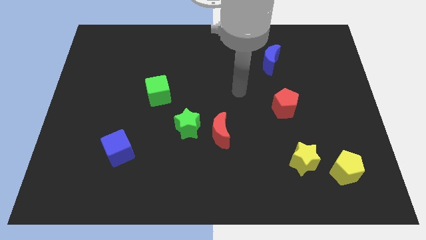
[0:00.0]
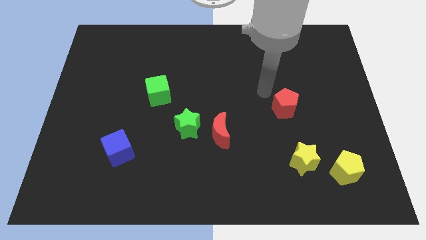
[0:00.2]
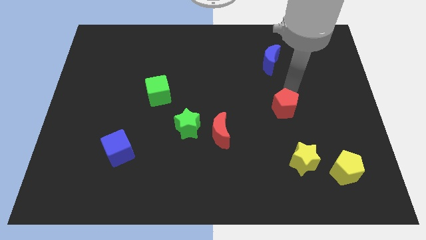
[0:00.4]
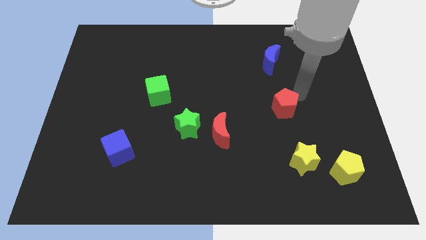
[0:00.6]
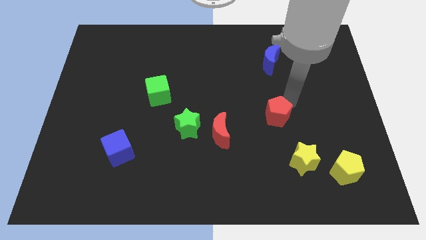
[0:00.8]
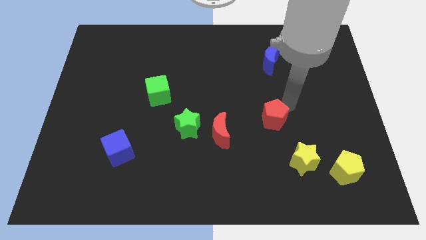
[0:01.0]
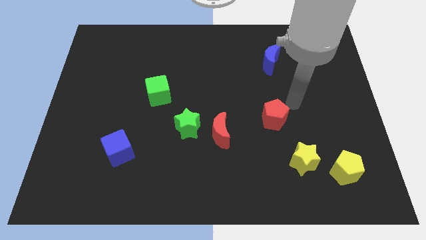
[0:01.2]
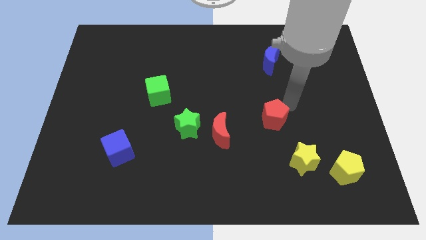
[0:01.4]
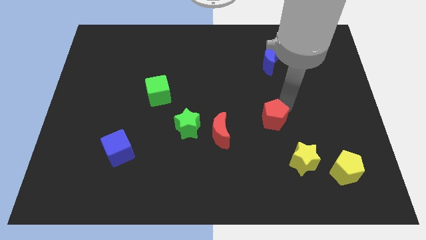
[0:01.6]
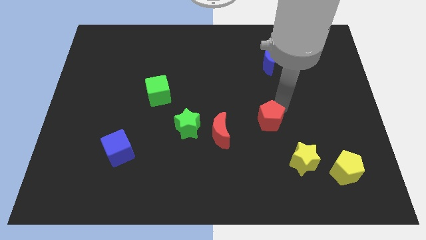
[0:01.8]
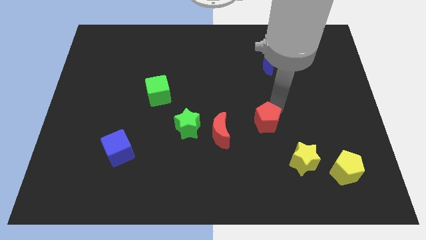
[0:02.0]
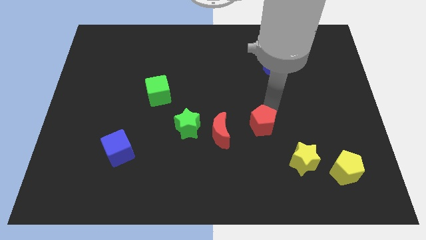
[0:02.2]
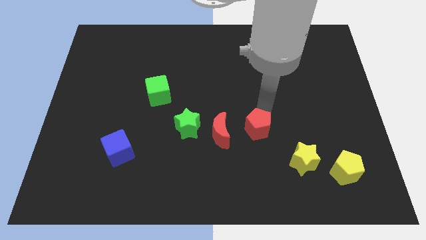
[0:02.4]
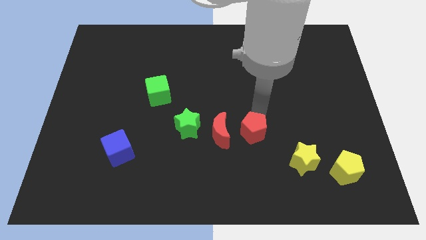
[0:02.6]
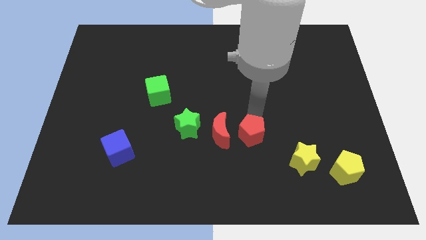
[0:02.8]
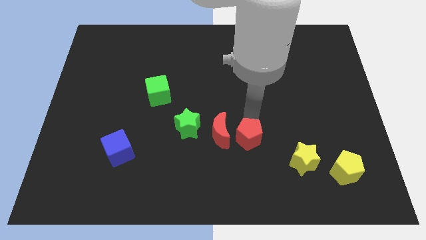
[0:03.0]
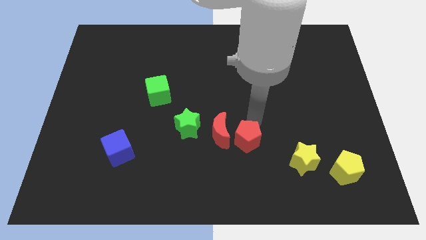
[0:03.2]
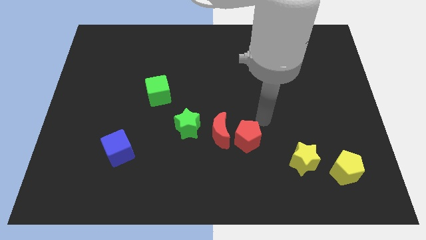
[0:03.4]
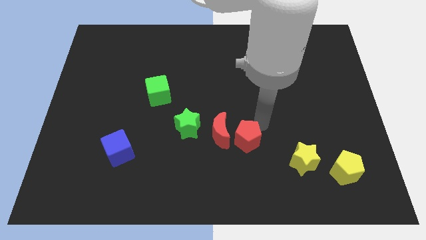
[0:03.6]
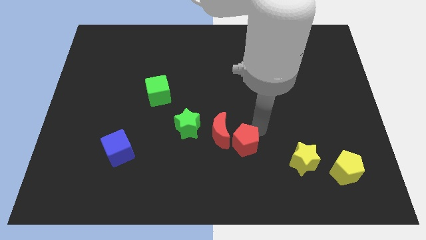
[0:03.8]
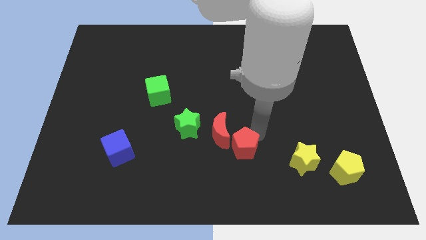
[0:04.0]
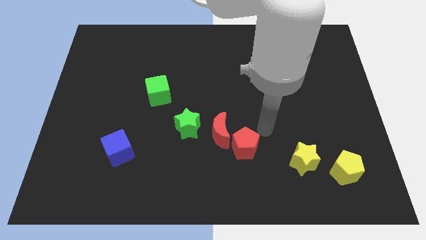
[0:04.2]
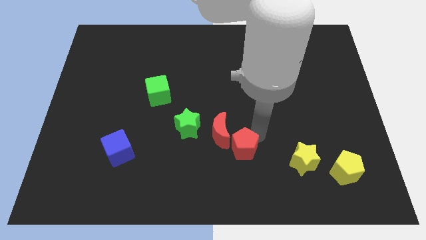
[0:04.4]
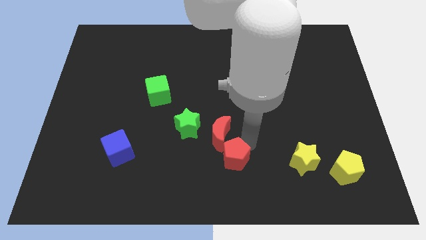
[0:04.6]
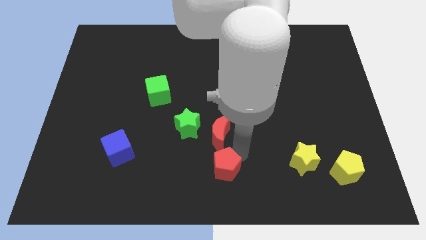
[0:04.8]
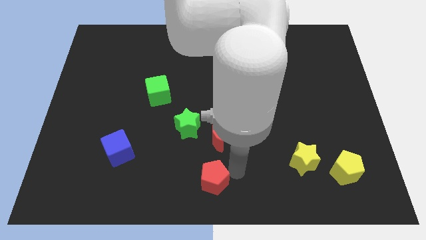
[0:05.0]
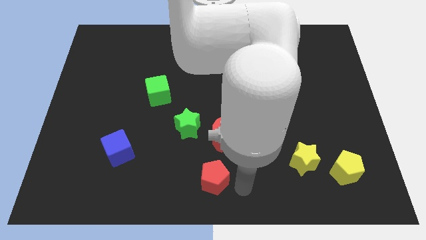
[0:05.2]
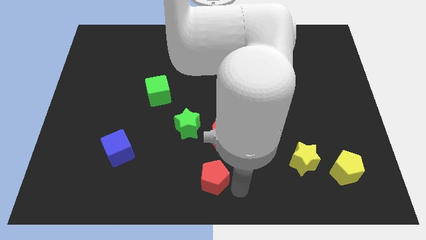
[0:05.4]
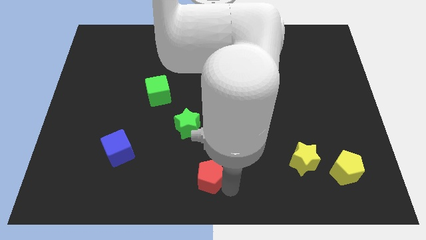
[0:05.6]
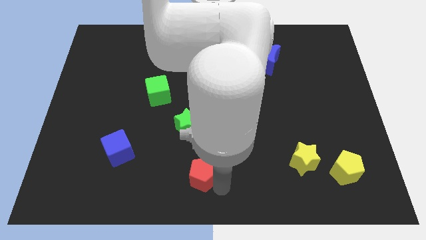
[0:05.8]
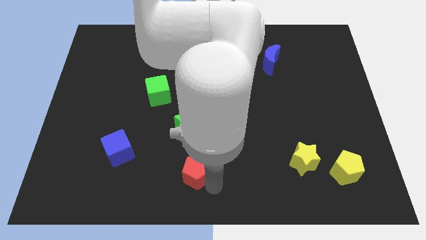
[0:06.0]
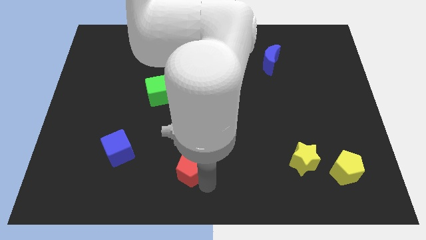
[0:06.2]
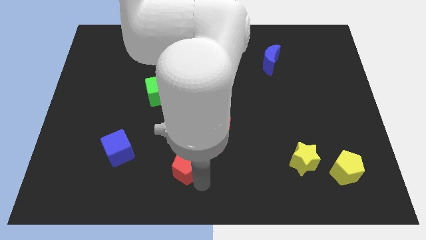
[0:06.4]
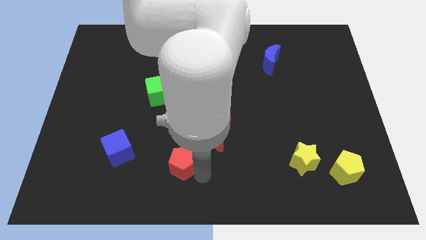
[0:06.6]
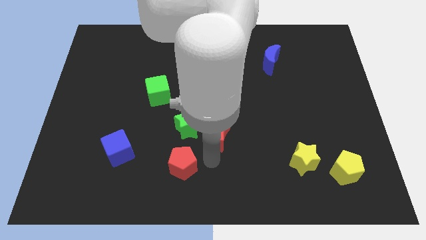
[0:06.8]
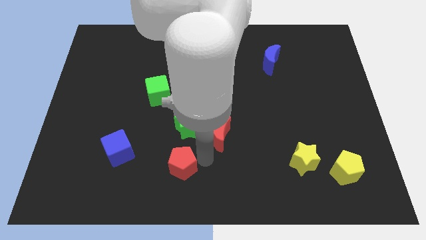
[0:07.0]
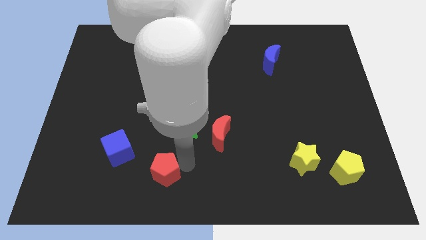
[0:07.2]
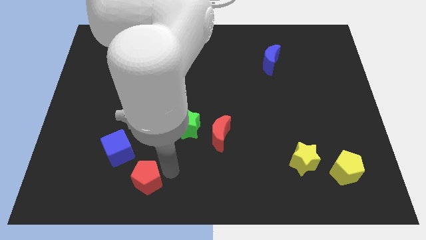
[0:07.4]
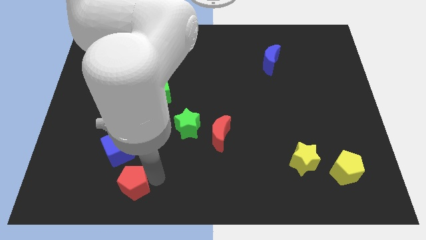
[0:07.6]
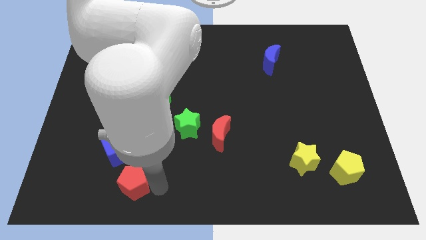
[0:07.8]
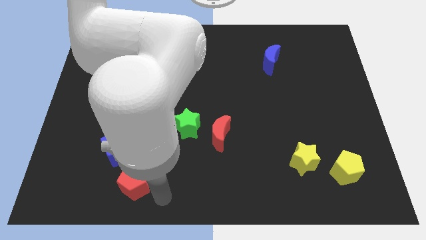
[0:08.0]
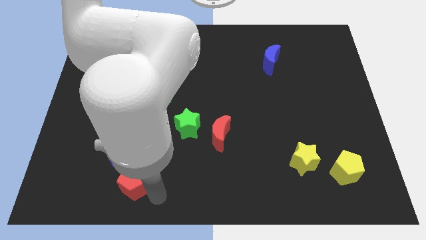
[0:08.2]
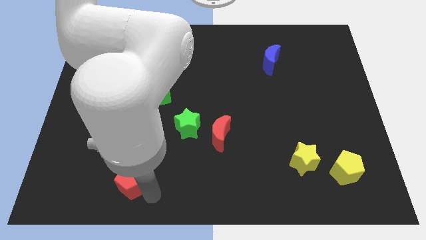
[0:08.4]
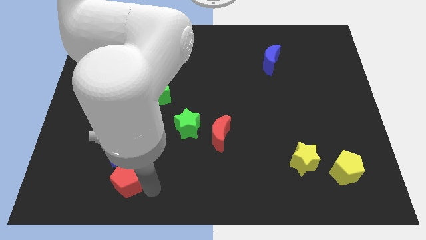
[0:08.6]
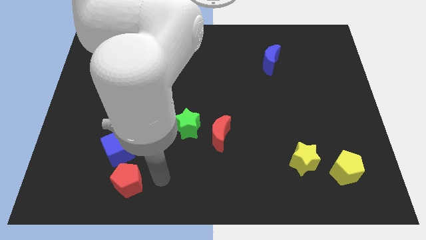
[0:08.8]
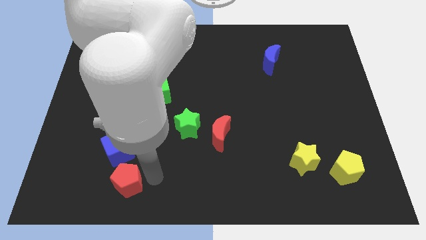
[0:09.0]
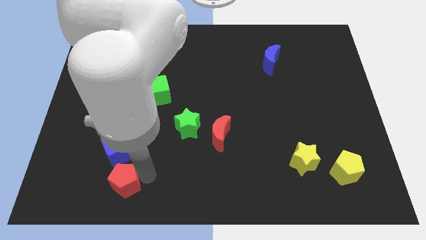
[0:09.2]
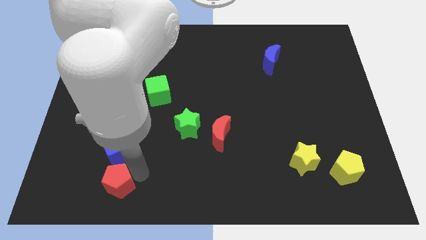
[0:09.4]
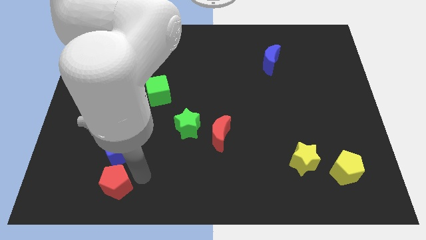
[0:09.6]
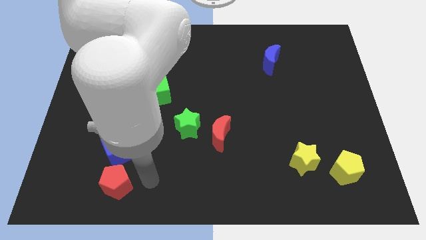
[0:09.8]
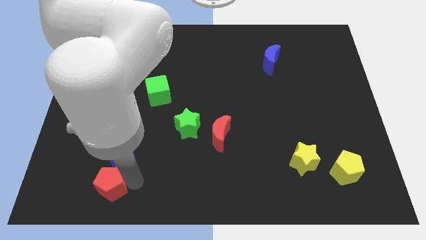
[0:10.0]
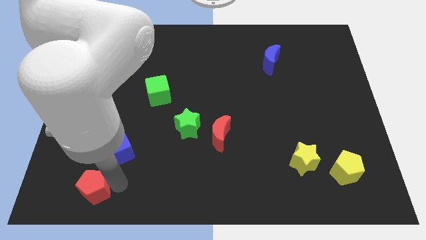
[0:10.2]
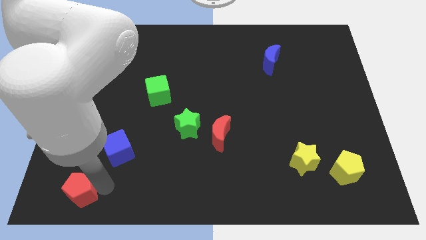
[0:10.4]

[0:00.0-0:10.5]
put the red pentagon to the bottom left of the board

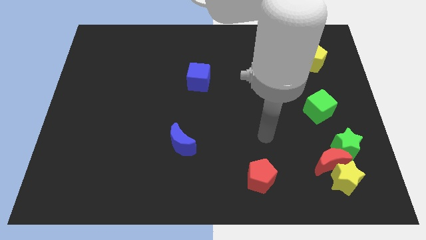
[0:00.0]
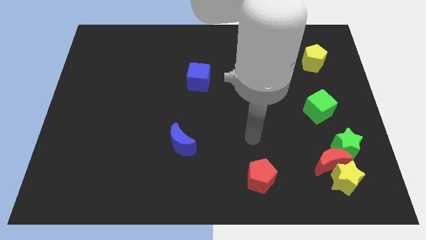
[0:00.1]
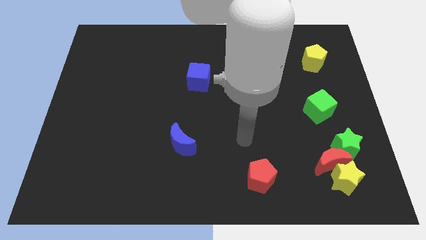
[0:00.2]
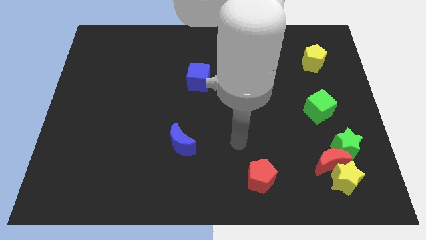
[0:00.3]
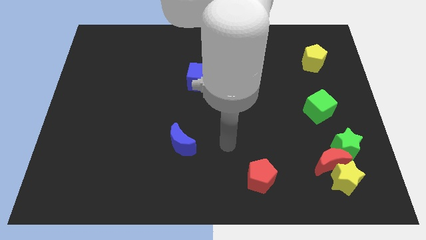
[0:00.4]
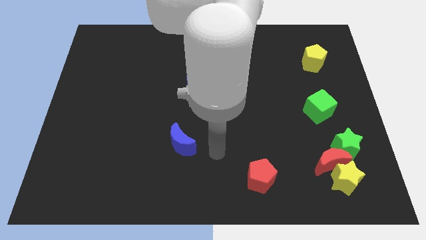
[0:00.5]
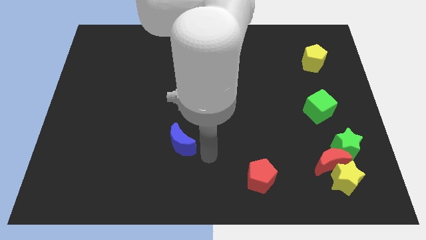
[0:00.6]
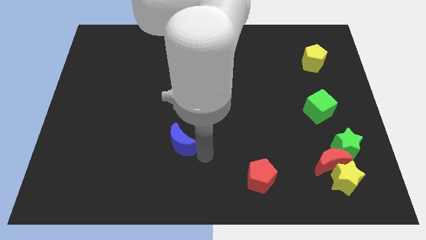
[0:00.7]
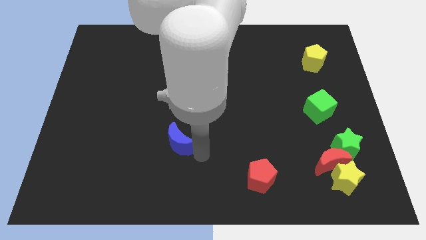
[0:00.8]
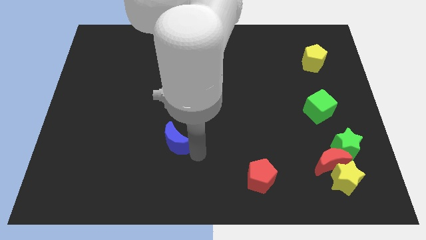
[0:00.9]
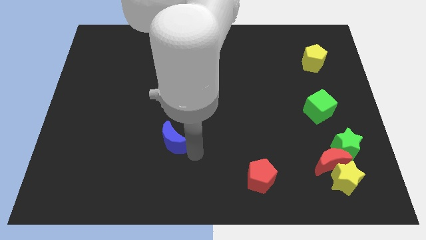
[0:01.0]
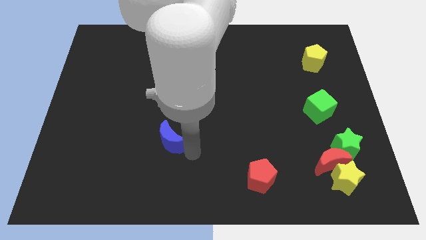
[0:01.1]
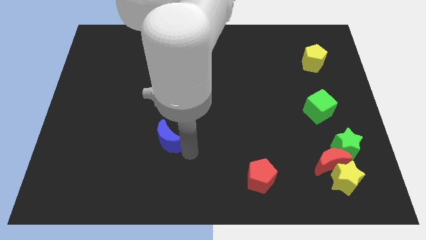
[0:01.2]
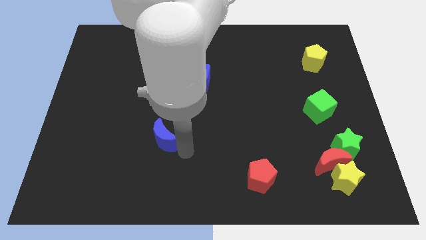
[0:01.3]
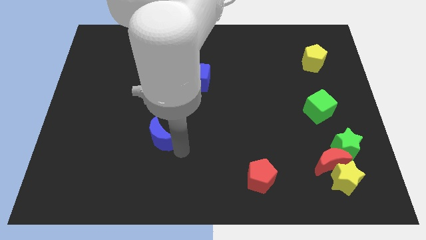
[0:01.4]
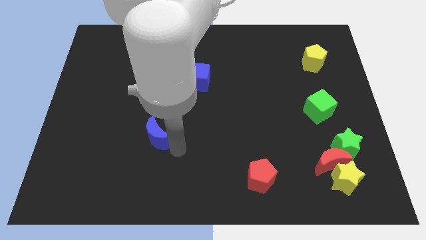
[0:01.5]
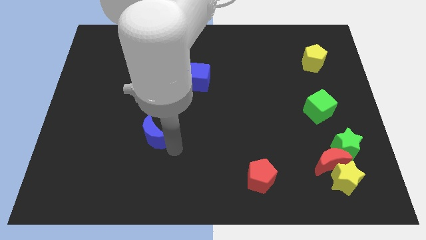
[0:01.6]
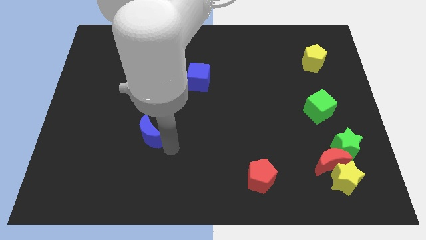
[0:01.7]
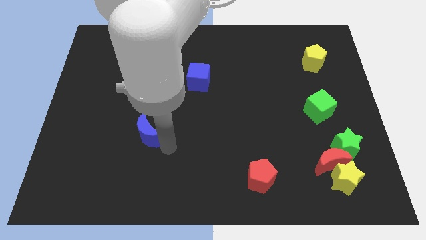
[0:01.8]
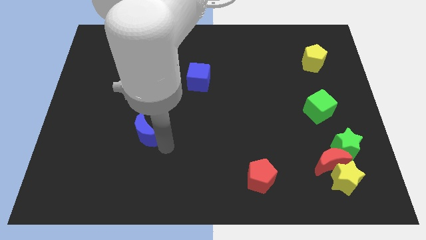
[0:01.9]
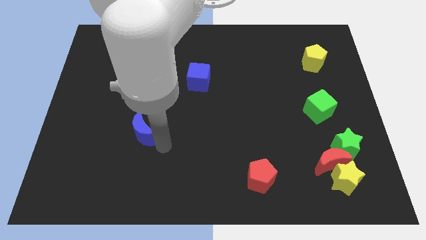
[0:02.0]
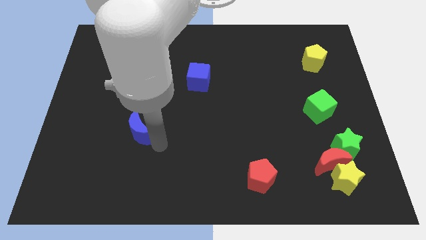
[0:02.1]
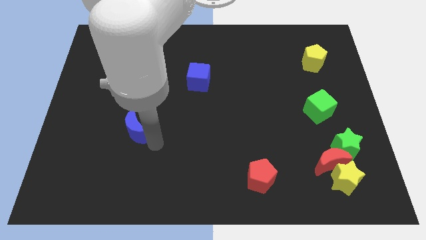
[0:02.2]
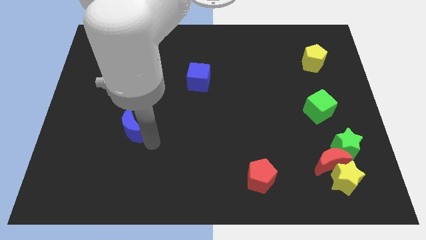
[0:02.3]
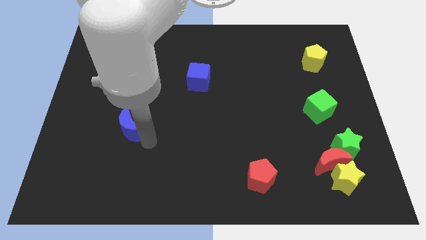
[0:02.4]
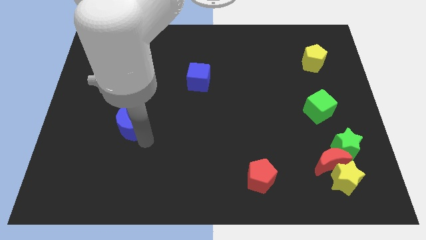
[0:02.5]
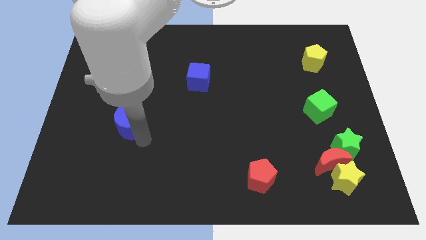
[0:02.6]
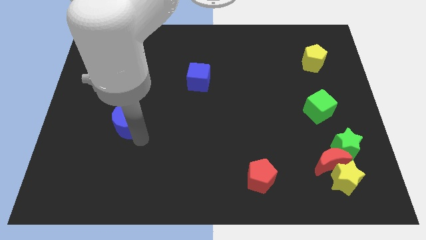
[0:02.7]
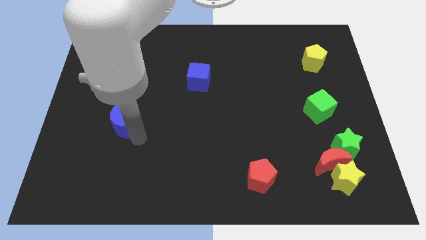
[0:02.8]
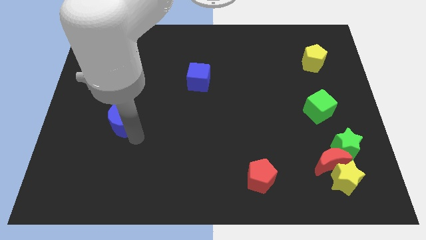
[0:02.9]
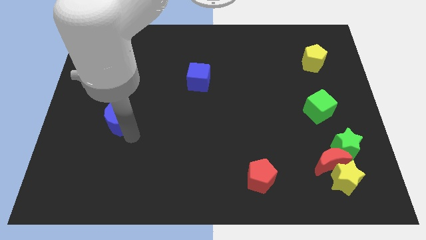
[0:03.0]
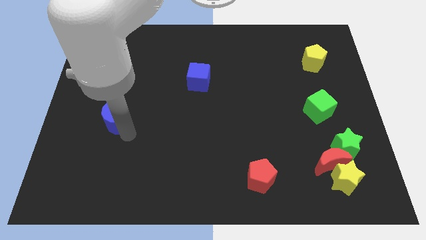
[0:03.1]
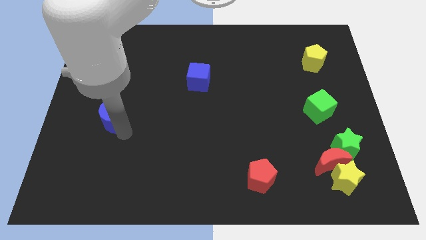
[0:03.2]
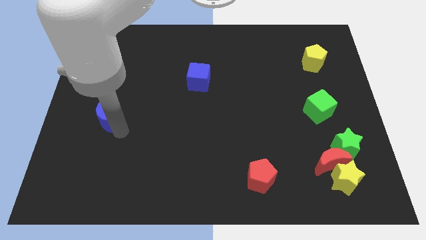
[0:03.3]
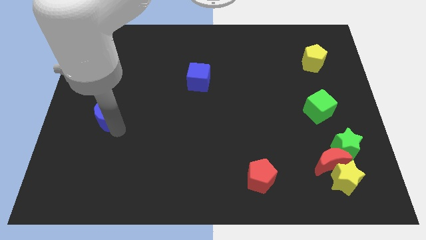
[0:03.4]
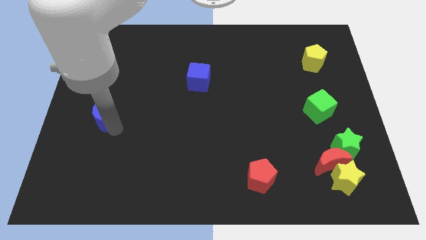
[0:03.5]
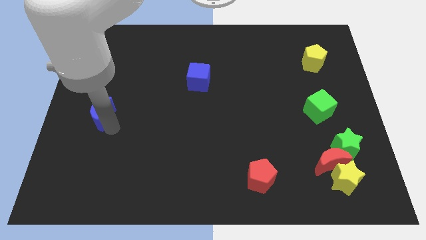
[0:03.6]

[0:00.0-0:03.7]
put the blue moon to the center left
